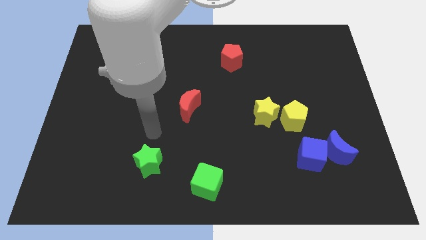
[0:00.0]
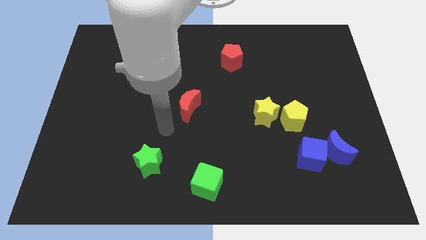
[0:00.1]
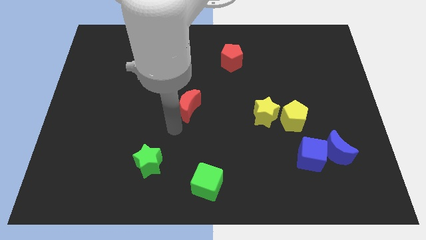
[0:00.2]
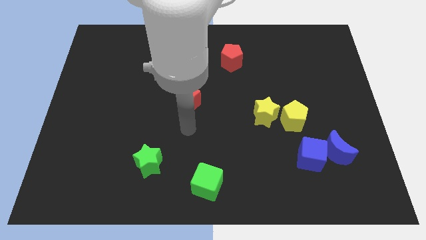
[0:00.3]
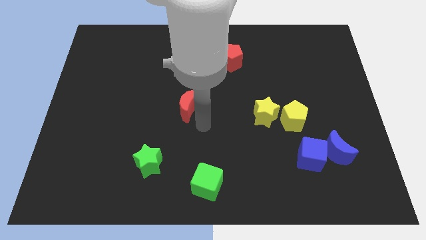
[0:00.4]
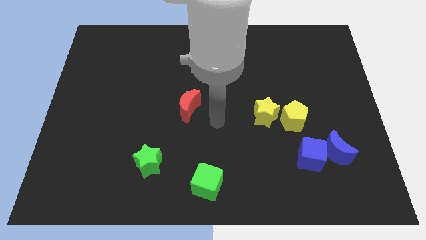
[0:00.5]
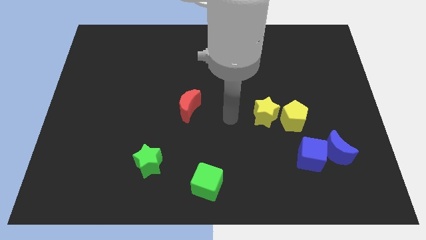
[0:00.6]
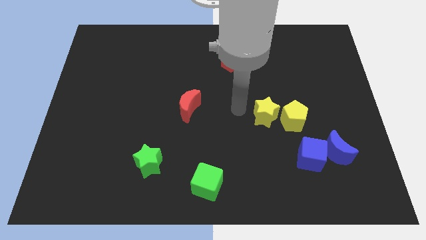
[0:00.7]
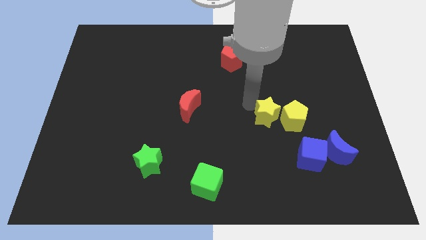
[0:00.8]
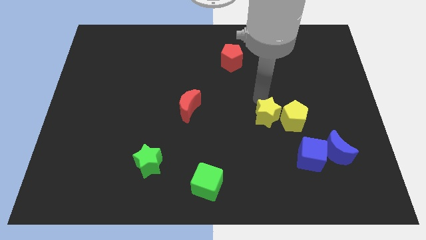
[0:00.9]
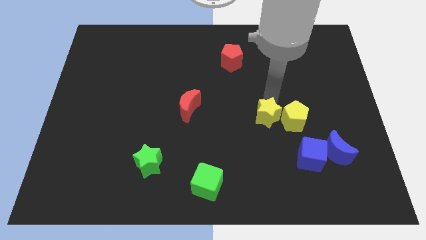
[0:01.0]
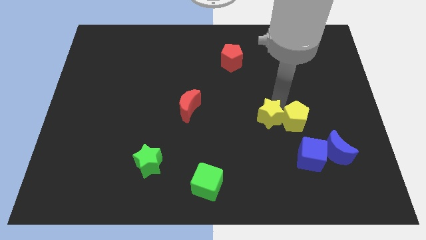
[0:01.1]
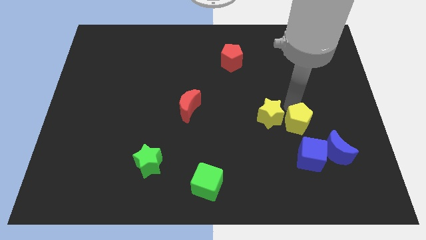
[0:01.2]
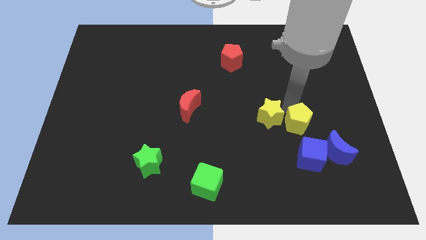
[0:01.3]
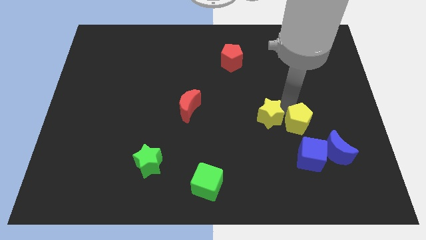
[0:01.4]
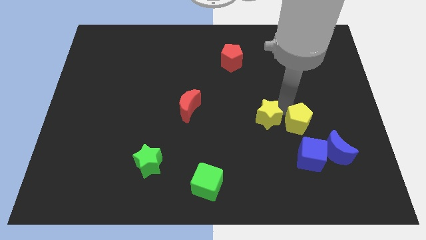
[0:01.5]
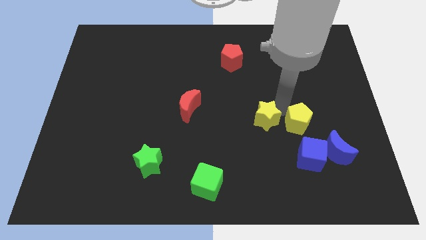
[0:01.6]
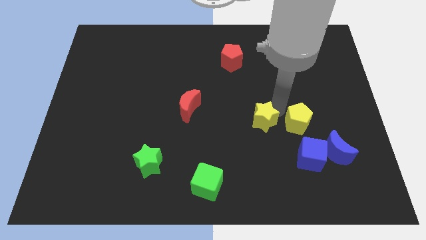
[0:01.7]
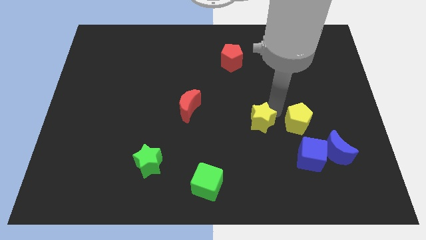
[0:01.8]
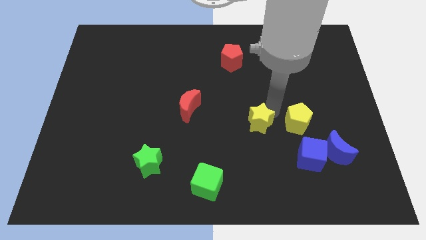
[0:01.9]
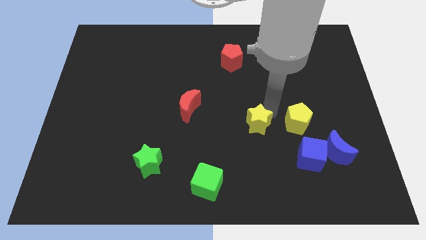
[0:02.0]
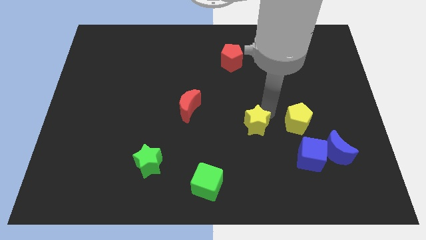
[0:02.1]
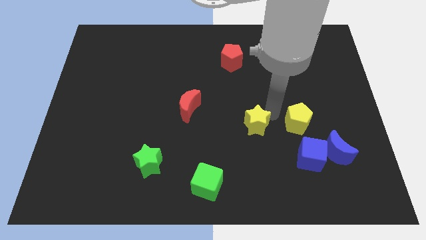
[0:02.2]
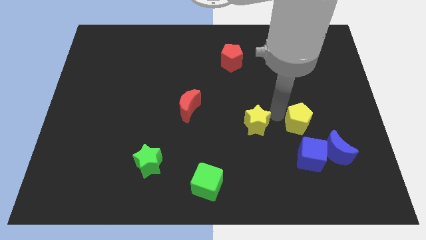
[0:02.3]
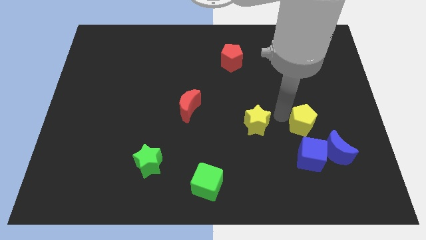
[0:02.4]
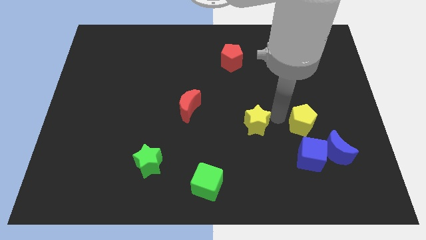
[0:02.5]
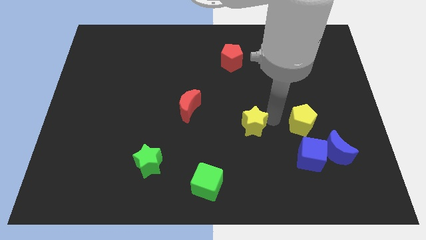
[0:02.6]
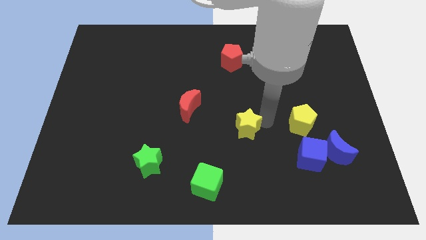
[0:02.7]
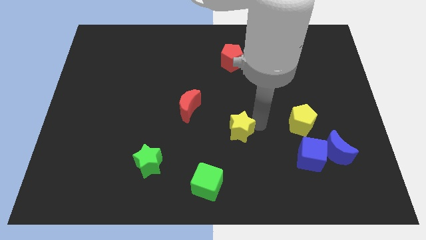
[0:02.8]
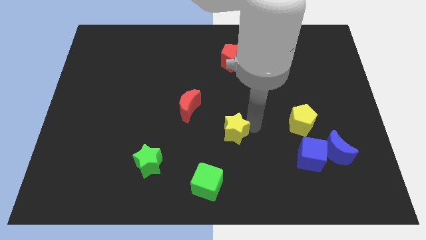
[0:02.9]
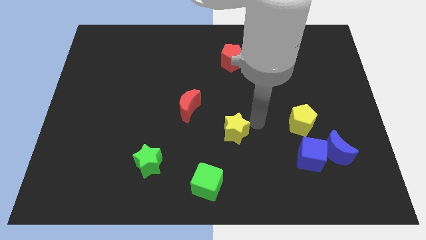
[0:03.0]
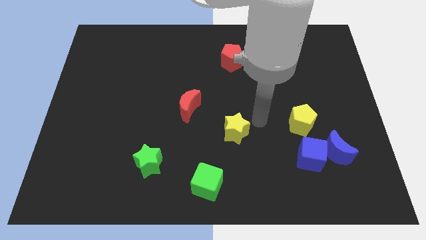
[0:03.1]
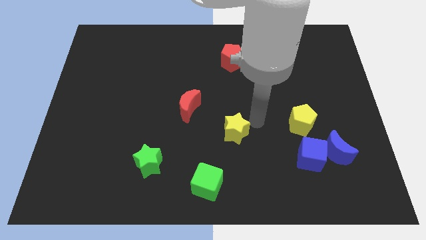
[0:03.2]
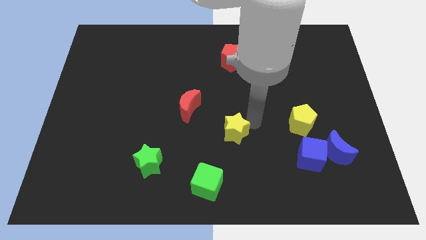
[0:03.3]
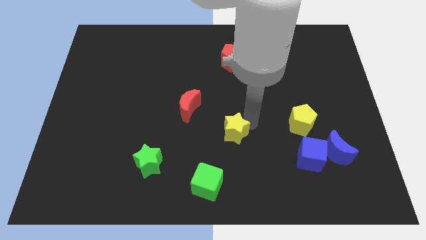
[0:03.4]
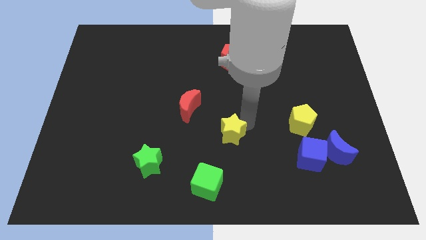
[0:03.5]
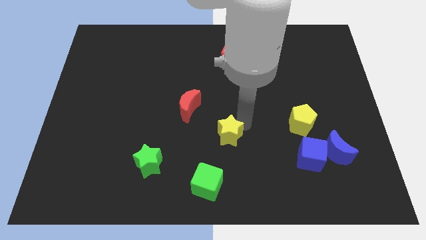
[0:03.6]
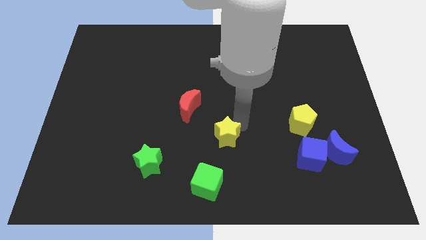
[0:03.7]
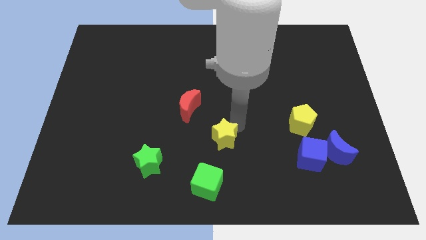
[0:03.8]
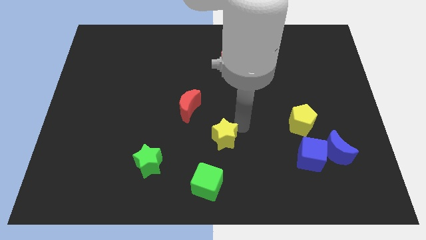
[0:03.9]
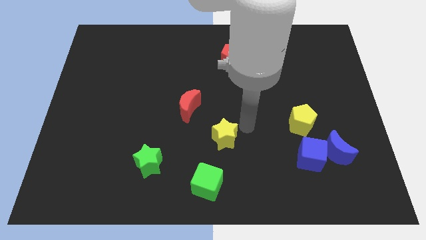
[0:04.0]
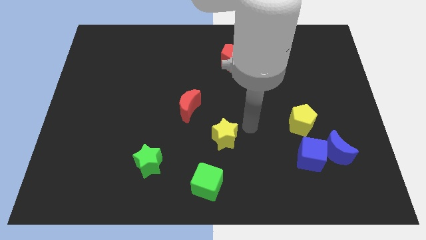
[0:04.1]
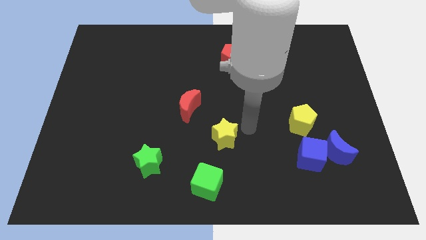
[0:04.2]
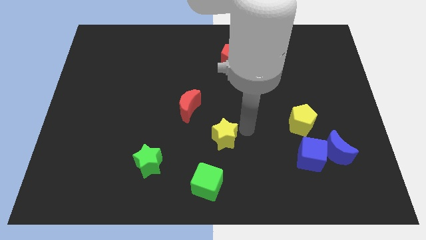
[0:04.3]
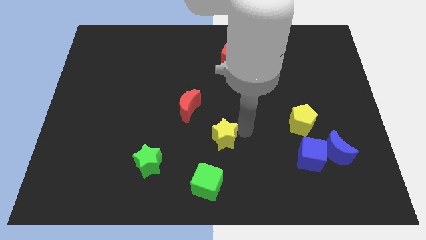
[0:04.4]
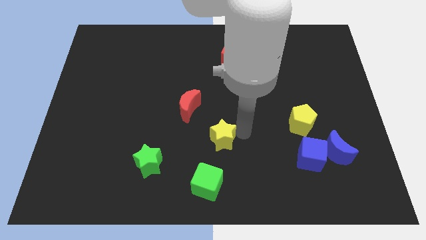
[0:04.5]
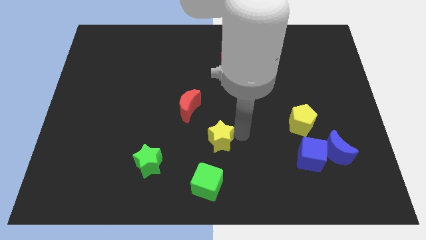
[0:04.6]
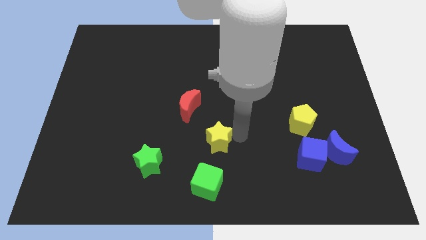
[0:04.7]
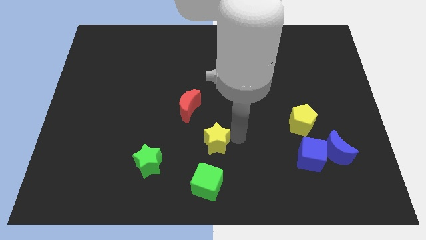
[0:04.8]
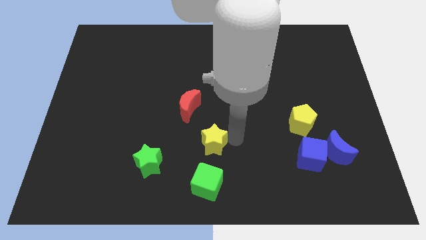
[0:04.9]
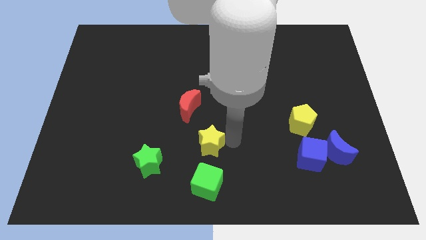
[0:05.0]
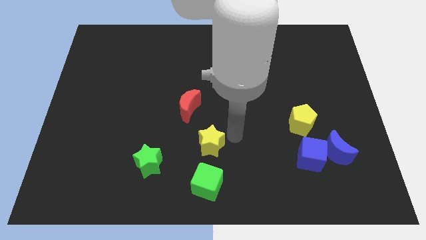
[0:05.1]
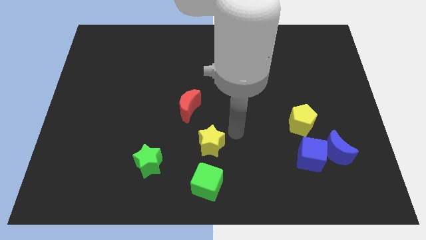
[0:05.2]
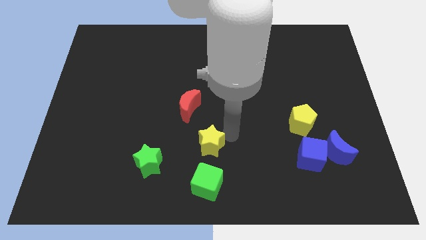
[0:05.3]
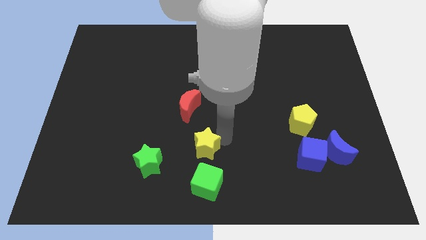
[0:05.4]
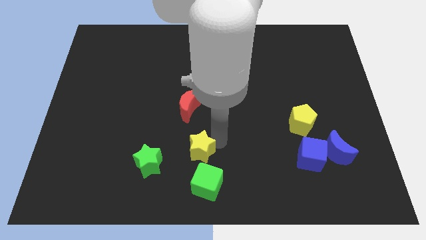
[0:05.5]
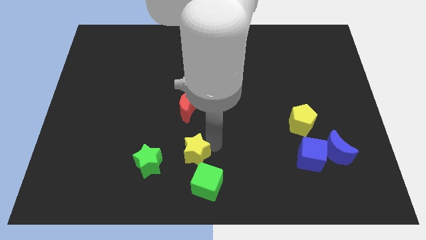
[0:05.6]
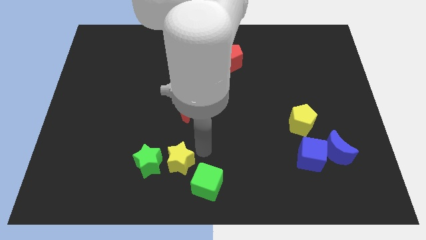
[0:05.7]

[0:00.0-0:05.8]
slide the yellow star just left of the green cube

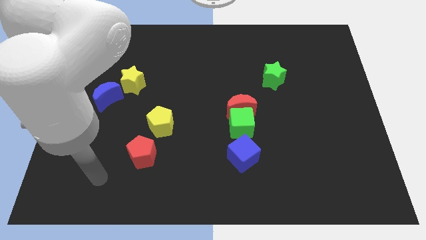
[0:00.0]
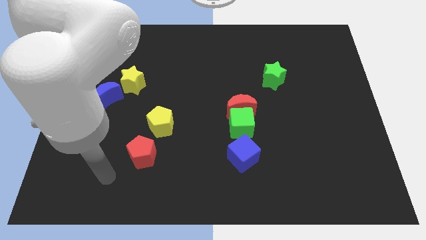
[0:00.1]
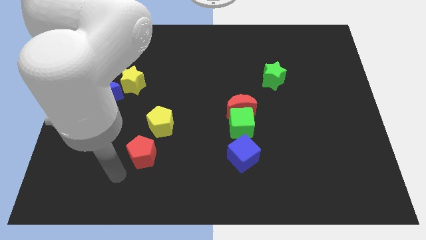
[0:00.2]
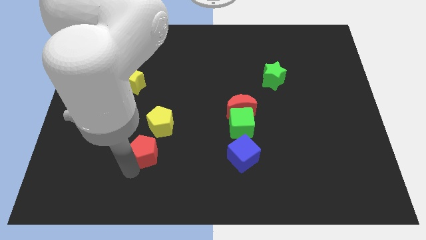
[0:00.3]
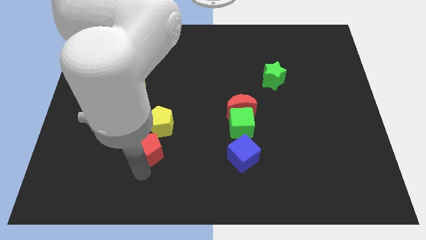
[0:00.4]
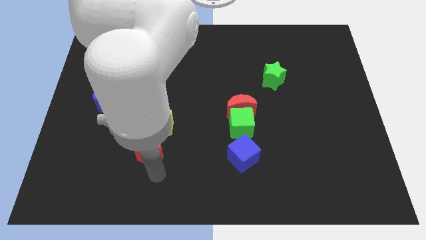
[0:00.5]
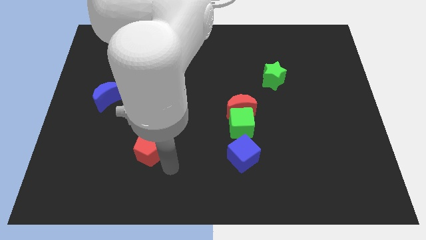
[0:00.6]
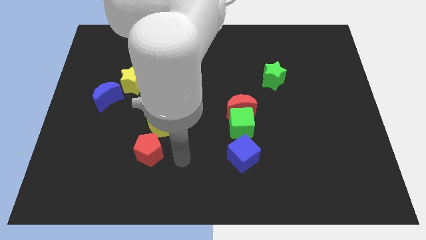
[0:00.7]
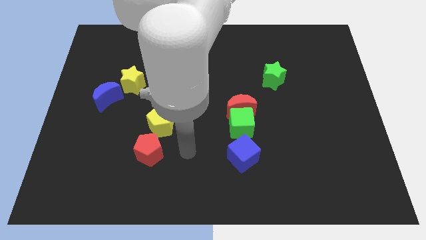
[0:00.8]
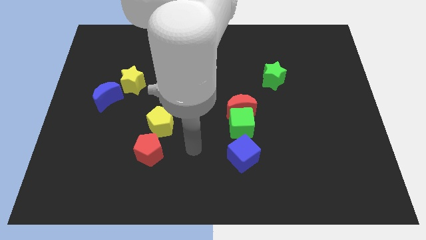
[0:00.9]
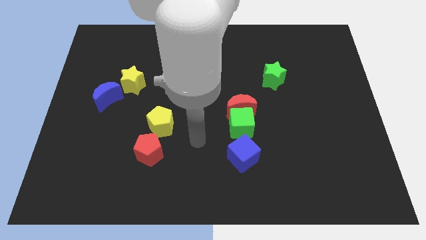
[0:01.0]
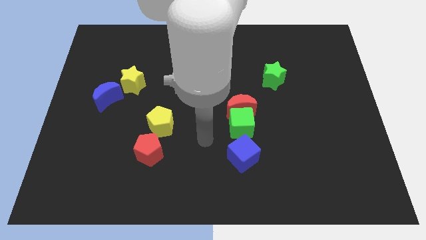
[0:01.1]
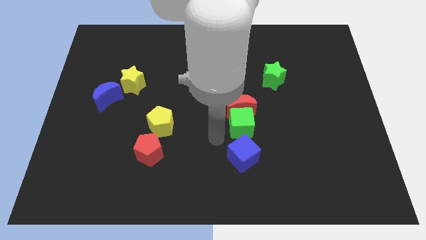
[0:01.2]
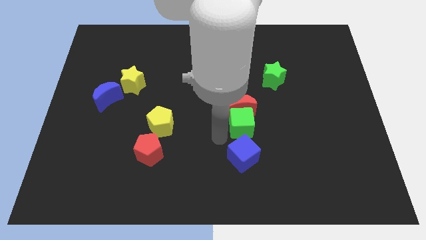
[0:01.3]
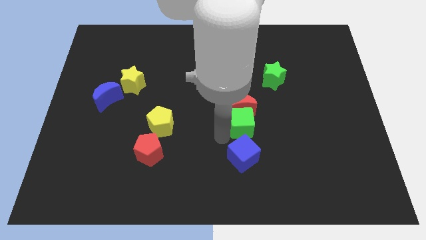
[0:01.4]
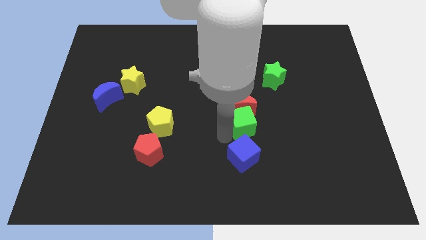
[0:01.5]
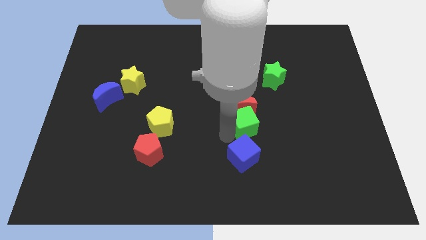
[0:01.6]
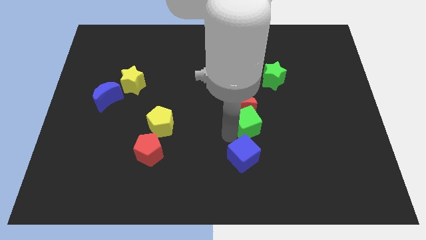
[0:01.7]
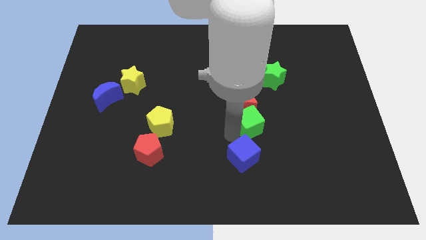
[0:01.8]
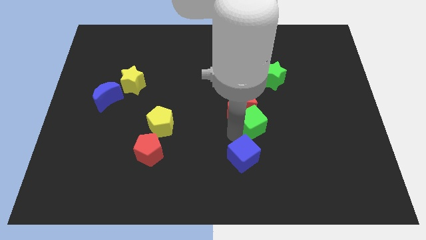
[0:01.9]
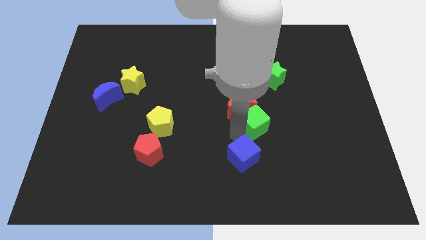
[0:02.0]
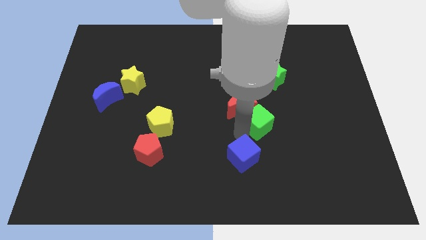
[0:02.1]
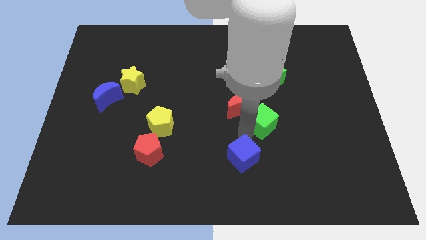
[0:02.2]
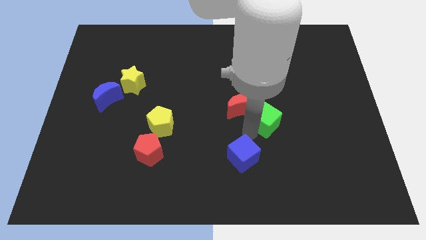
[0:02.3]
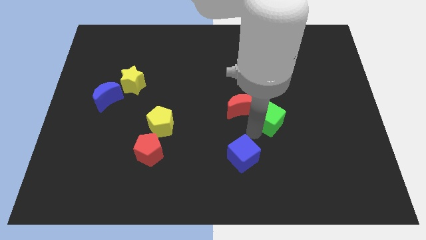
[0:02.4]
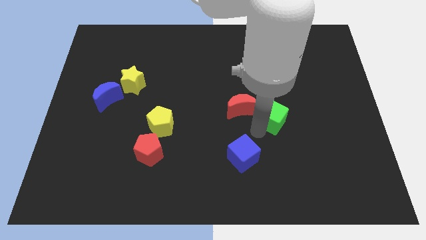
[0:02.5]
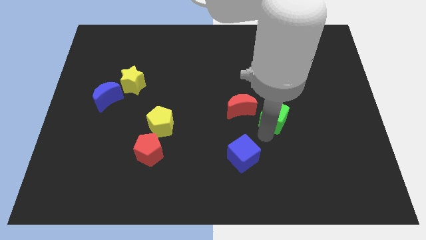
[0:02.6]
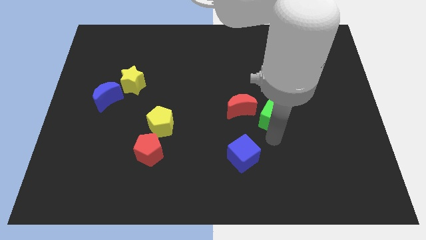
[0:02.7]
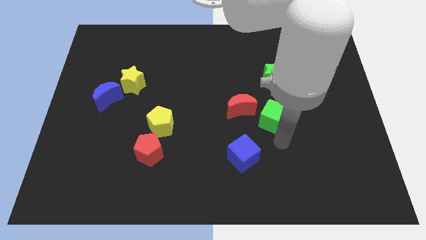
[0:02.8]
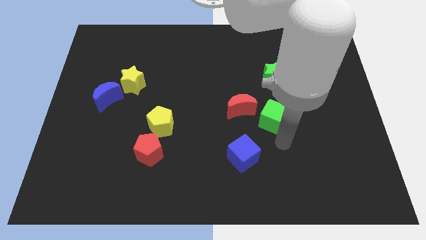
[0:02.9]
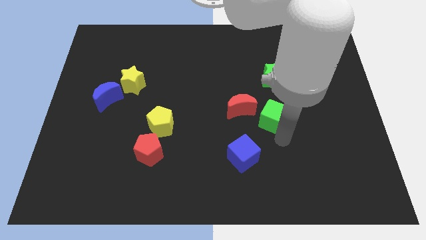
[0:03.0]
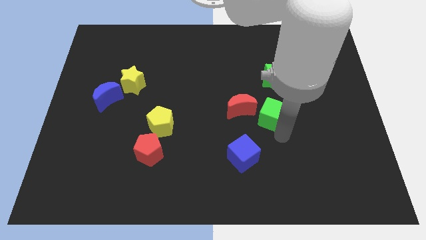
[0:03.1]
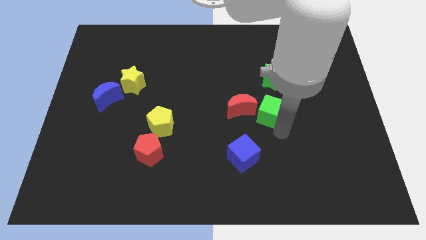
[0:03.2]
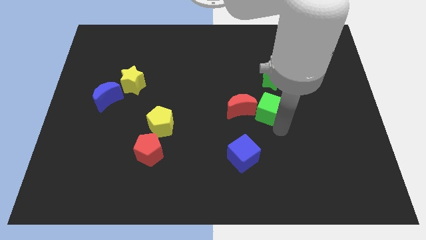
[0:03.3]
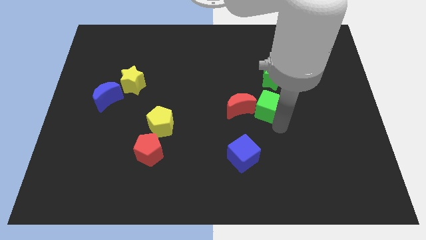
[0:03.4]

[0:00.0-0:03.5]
put the green cube to the top right of the red moon
